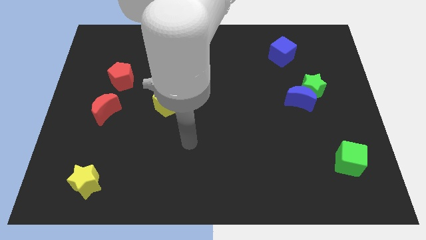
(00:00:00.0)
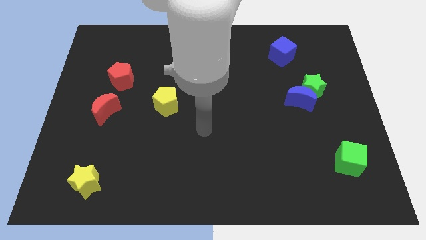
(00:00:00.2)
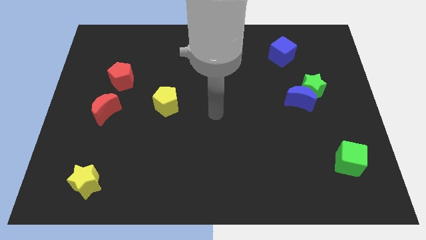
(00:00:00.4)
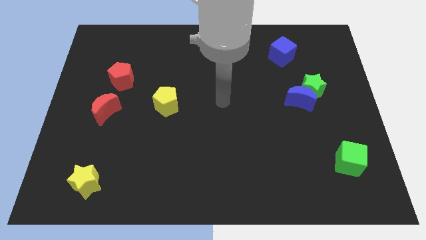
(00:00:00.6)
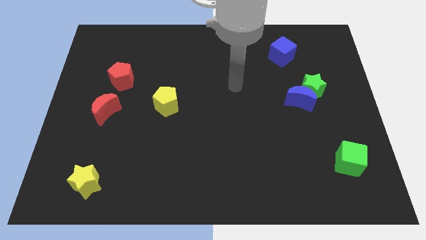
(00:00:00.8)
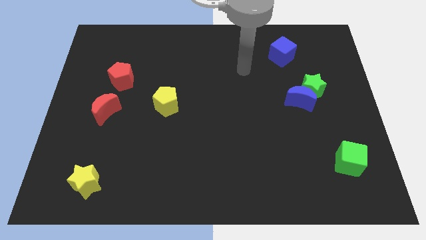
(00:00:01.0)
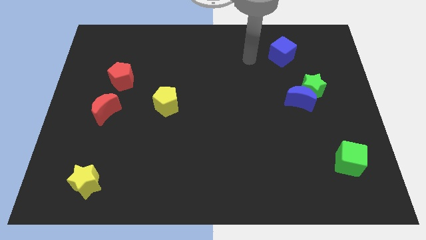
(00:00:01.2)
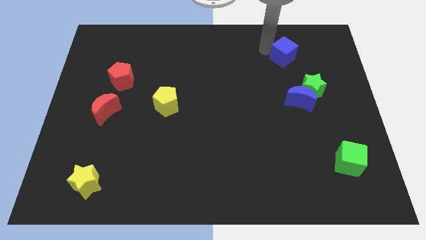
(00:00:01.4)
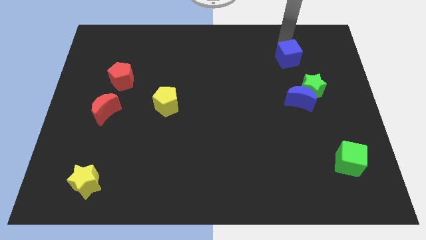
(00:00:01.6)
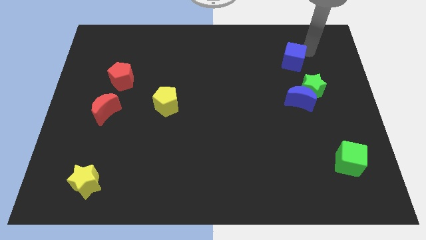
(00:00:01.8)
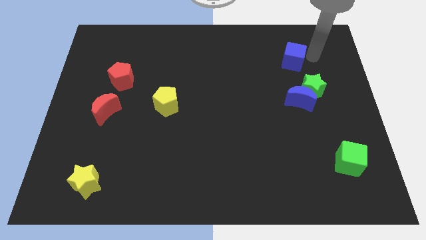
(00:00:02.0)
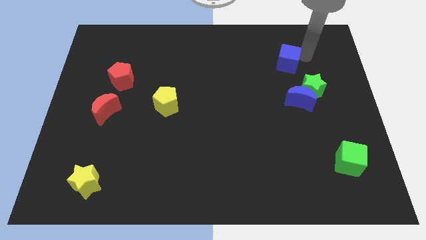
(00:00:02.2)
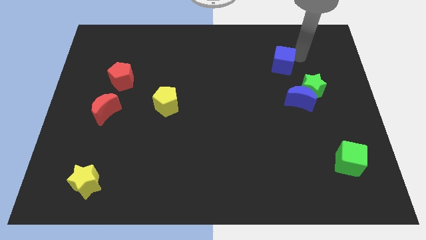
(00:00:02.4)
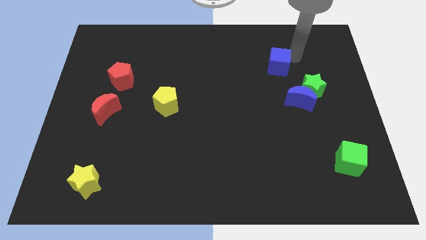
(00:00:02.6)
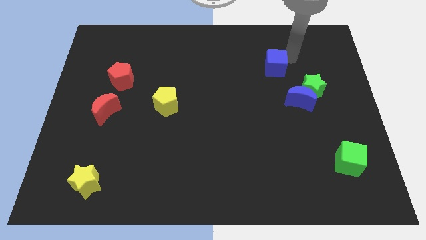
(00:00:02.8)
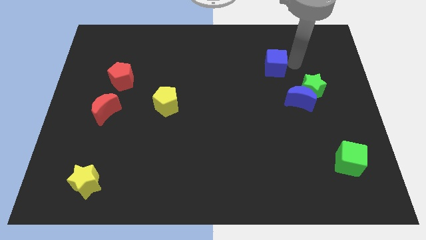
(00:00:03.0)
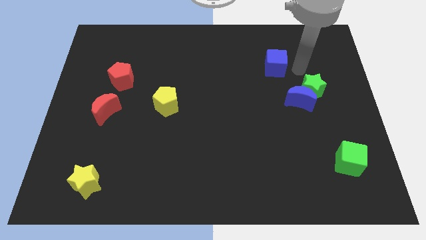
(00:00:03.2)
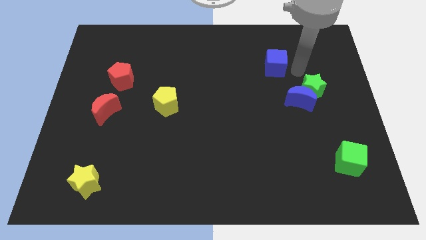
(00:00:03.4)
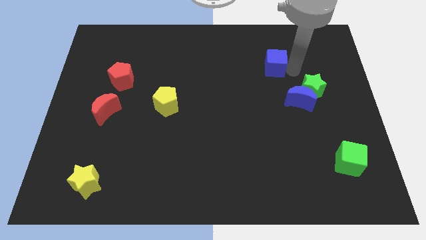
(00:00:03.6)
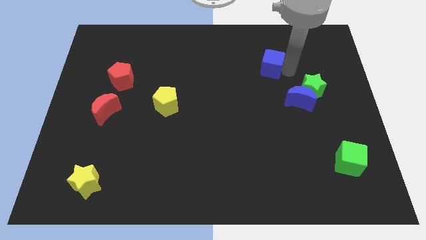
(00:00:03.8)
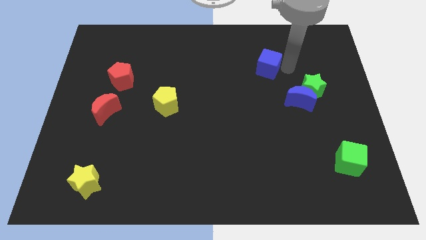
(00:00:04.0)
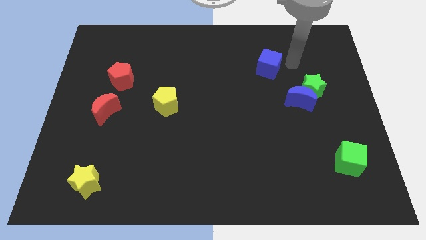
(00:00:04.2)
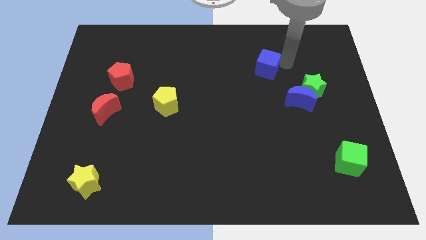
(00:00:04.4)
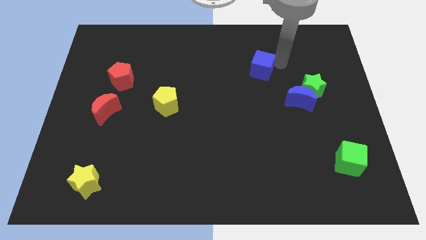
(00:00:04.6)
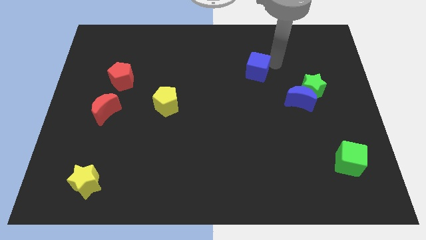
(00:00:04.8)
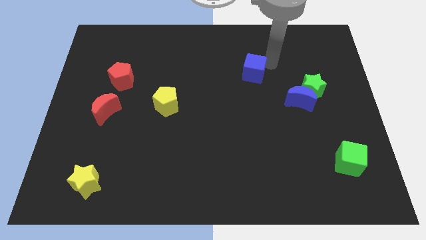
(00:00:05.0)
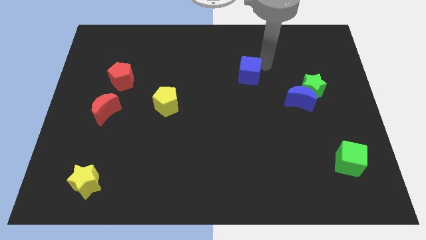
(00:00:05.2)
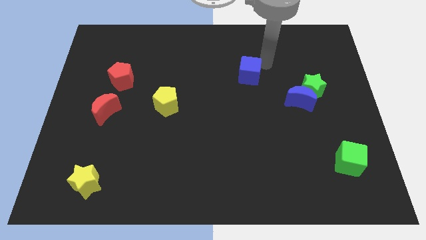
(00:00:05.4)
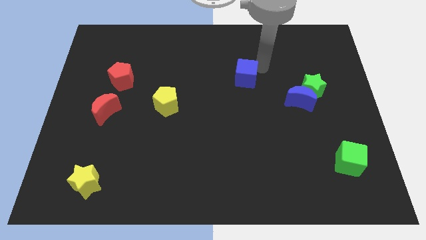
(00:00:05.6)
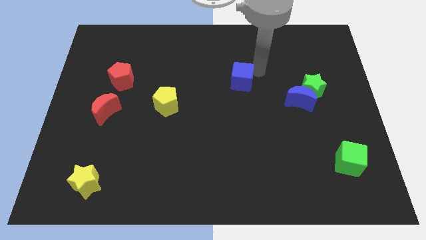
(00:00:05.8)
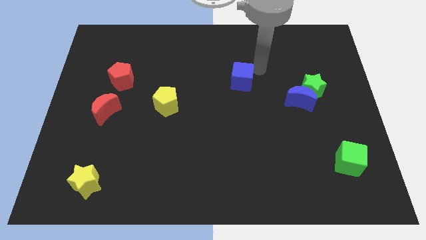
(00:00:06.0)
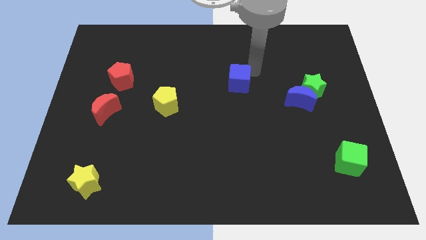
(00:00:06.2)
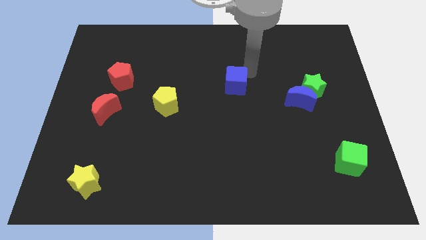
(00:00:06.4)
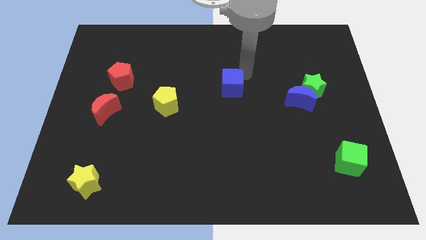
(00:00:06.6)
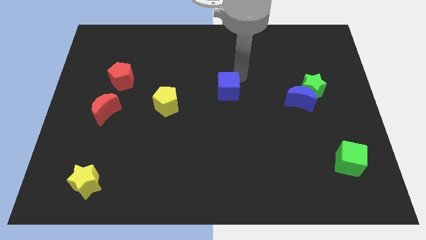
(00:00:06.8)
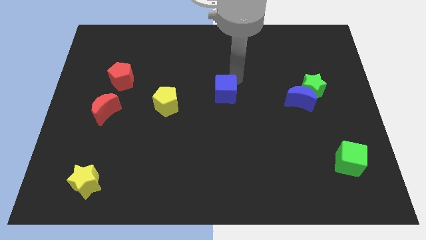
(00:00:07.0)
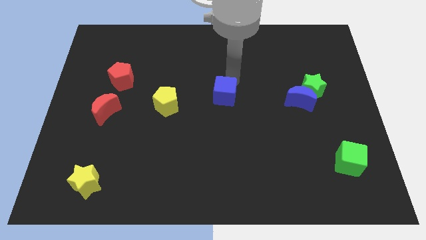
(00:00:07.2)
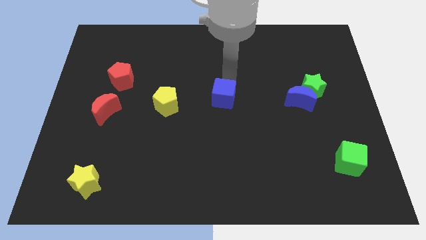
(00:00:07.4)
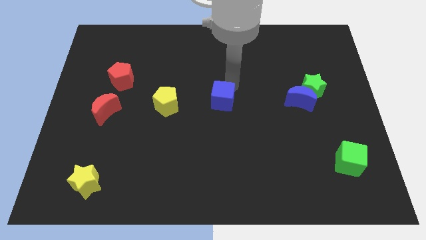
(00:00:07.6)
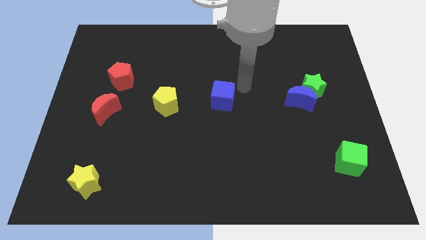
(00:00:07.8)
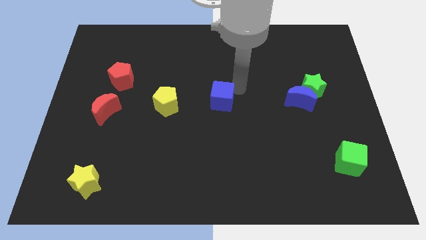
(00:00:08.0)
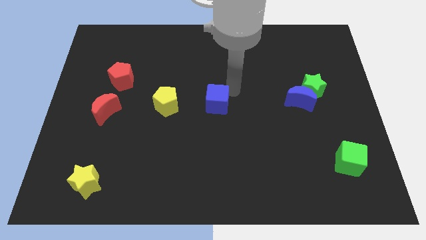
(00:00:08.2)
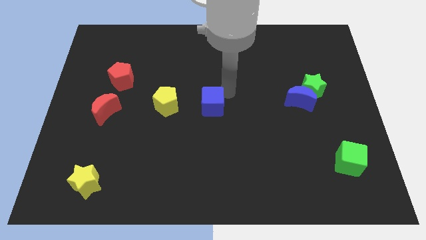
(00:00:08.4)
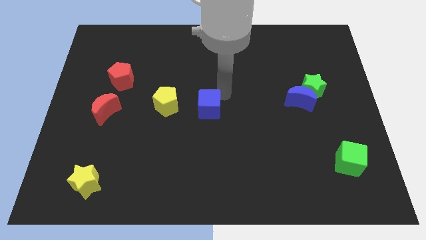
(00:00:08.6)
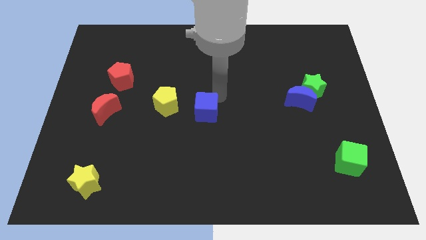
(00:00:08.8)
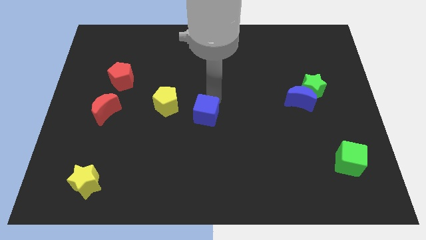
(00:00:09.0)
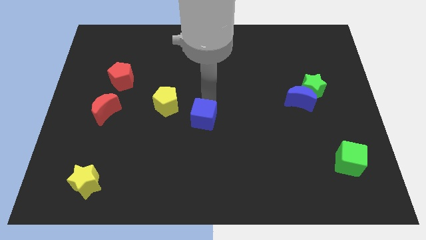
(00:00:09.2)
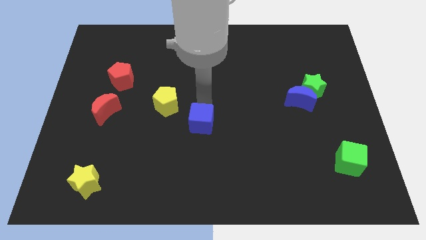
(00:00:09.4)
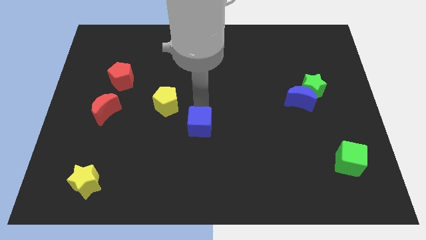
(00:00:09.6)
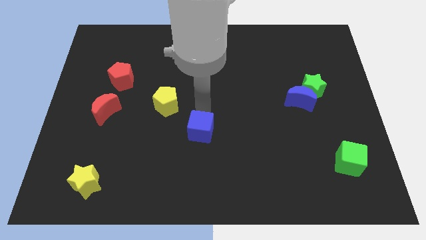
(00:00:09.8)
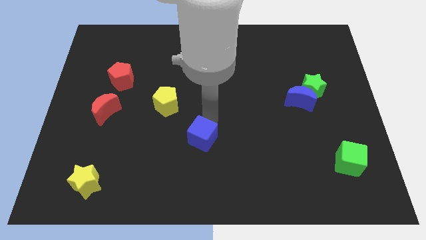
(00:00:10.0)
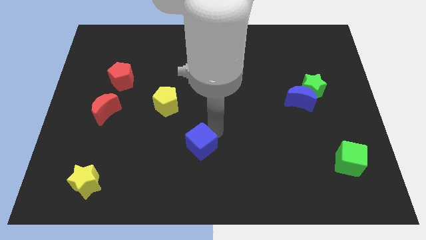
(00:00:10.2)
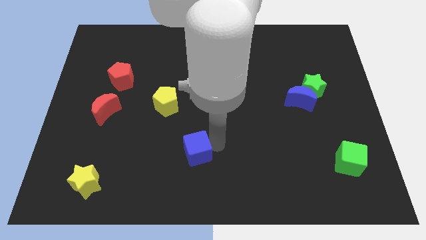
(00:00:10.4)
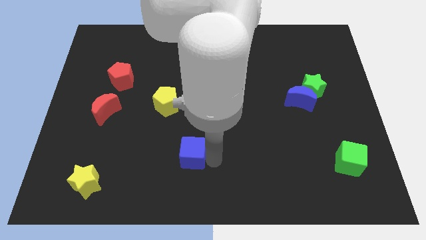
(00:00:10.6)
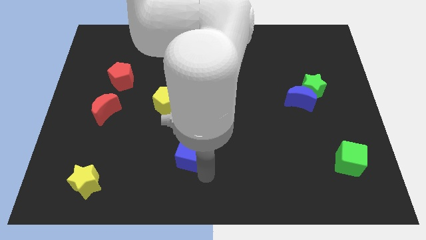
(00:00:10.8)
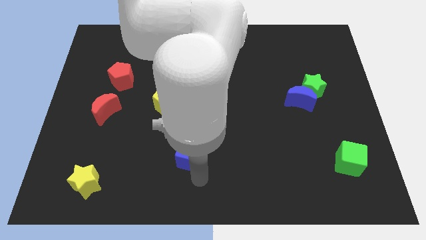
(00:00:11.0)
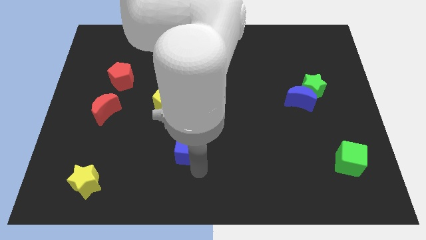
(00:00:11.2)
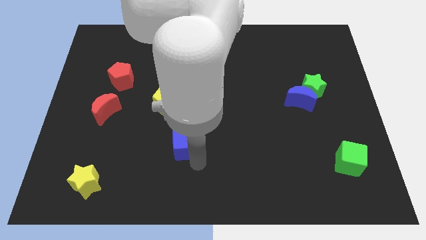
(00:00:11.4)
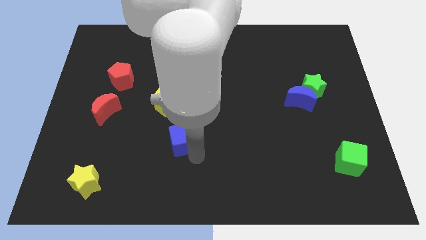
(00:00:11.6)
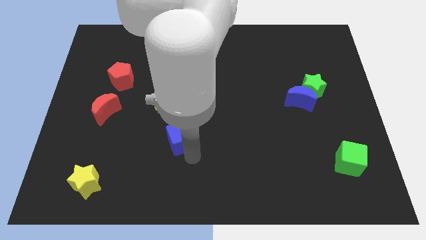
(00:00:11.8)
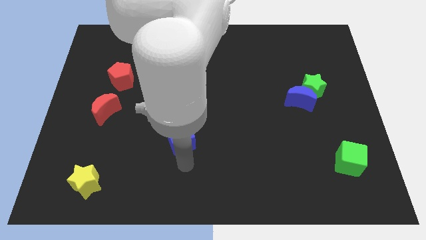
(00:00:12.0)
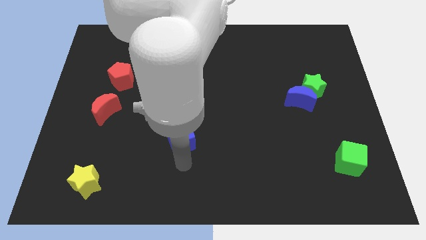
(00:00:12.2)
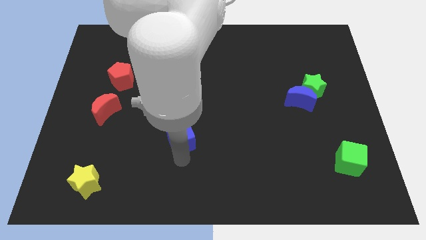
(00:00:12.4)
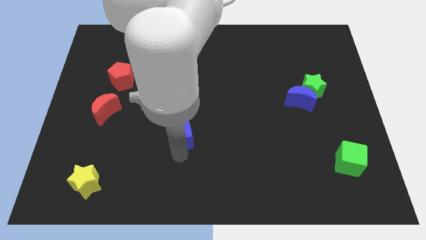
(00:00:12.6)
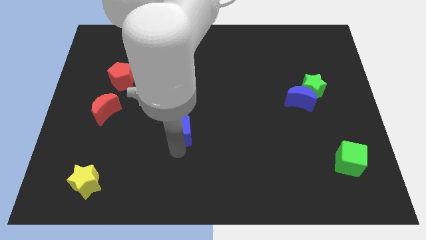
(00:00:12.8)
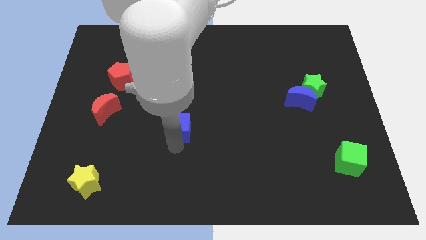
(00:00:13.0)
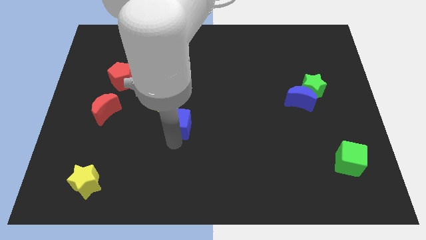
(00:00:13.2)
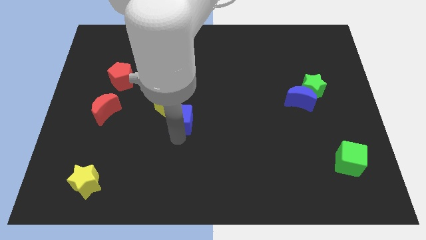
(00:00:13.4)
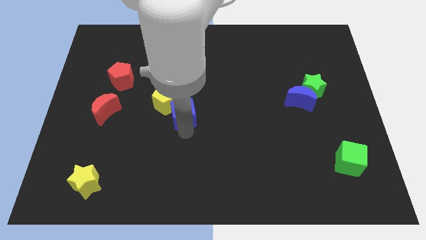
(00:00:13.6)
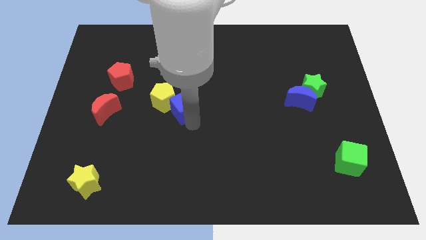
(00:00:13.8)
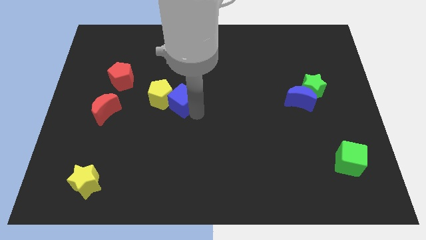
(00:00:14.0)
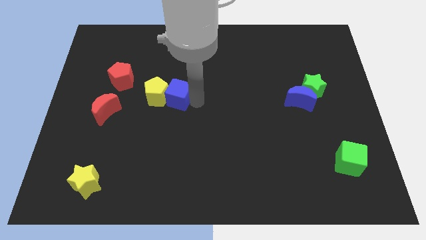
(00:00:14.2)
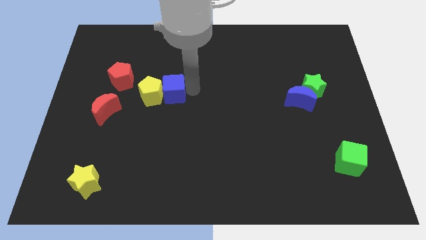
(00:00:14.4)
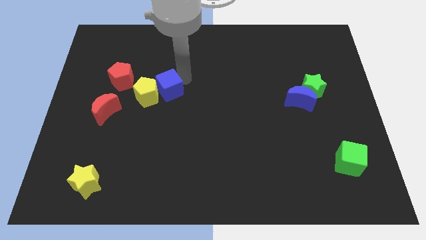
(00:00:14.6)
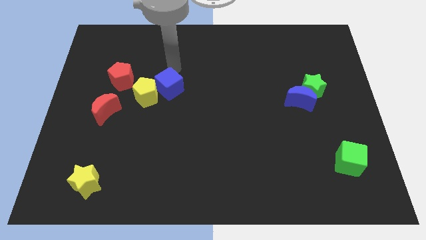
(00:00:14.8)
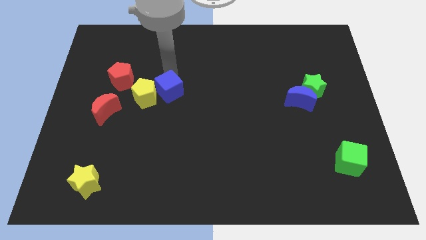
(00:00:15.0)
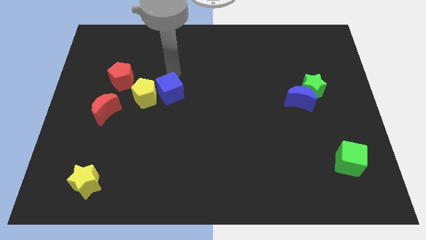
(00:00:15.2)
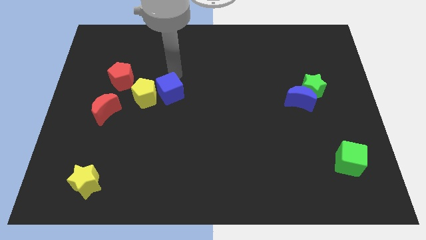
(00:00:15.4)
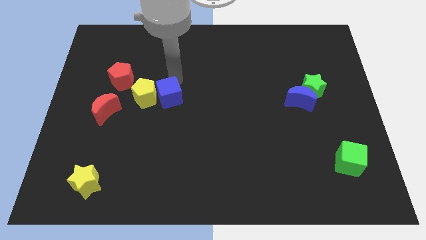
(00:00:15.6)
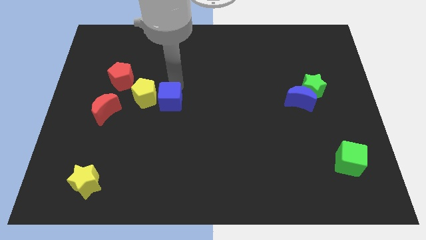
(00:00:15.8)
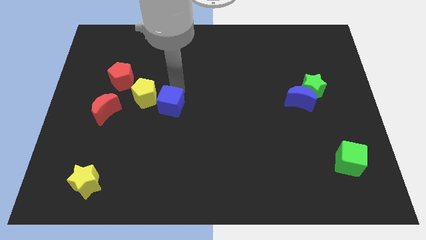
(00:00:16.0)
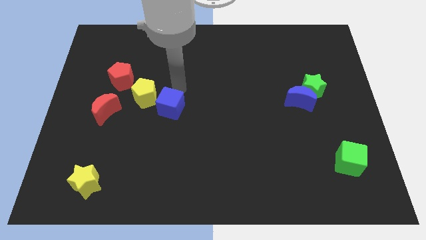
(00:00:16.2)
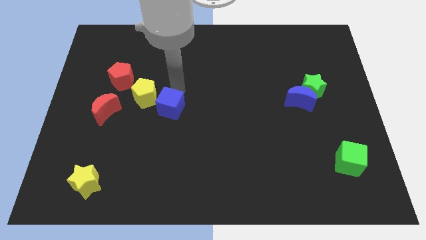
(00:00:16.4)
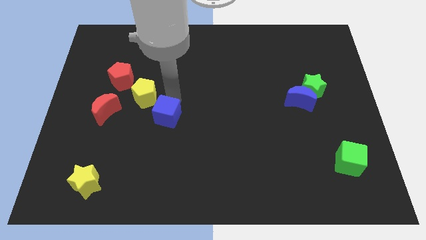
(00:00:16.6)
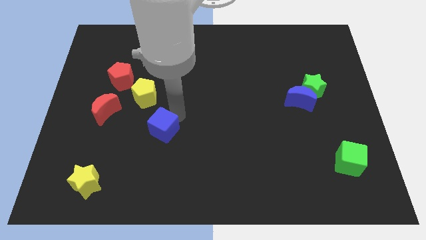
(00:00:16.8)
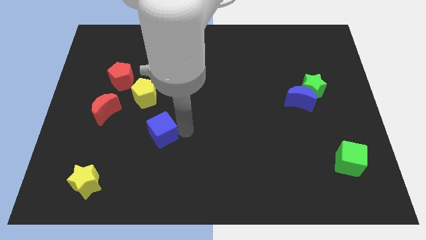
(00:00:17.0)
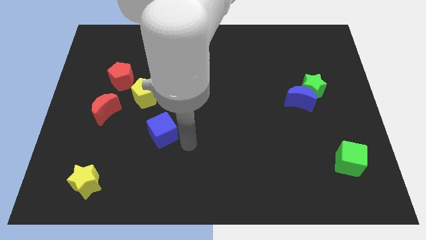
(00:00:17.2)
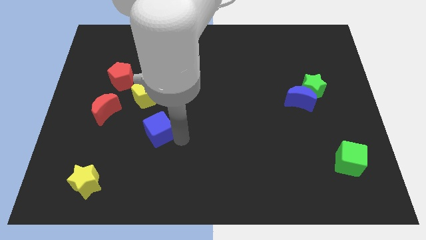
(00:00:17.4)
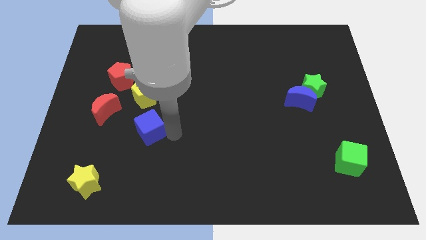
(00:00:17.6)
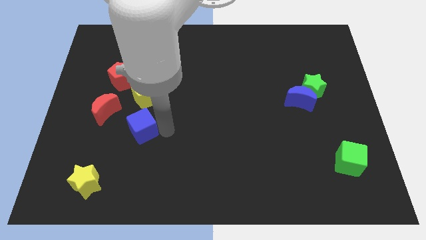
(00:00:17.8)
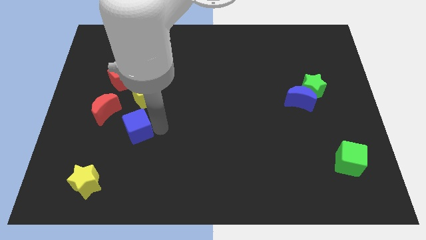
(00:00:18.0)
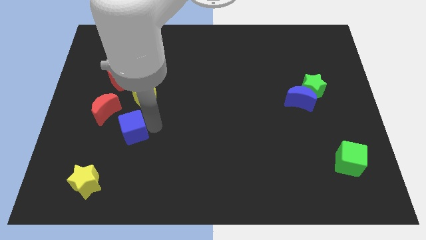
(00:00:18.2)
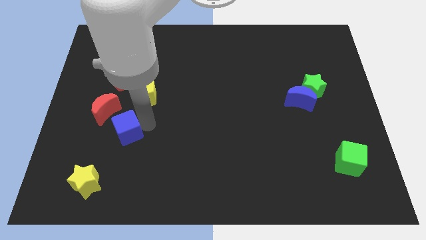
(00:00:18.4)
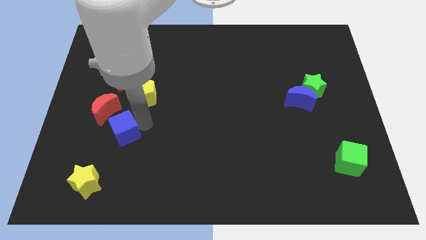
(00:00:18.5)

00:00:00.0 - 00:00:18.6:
put the blue cube diagonally down and to the left of the yellow pentagon
